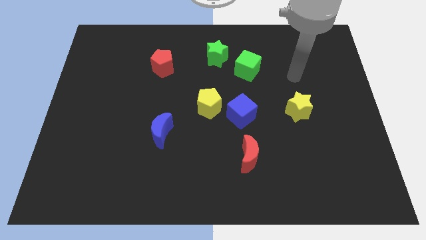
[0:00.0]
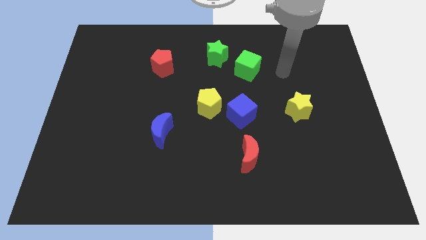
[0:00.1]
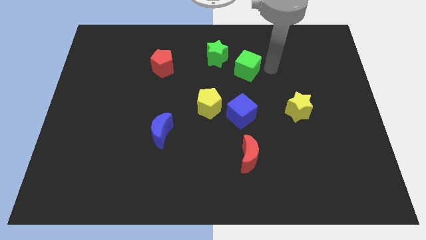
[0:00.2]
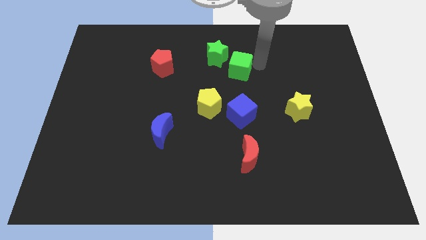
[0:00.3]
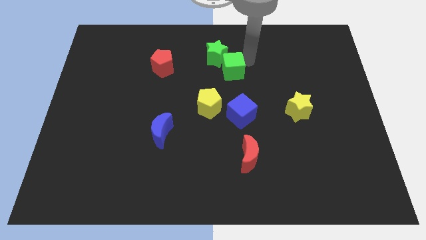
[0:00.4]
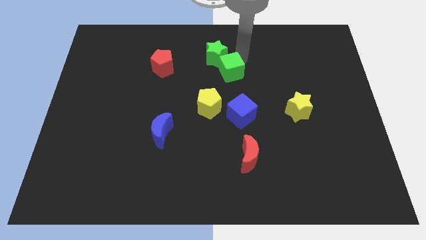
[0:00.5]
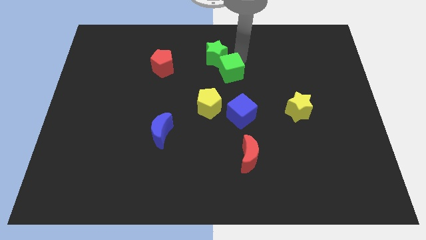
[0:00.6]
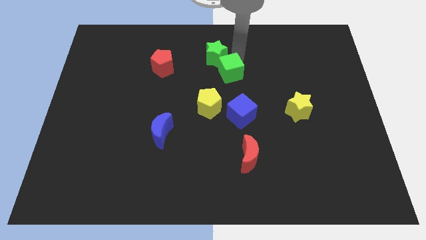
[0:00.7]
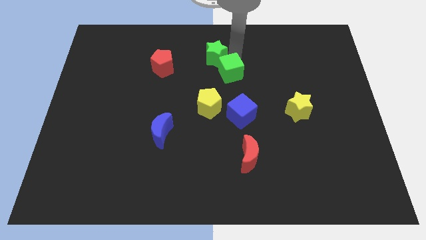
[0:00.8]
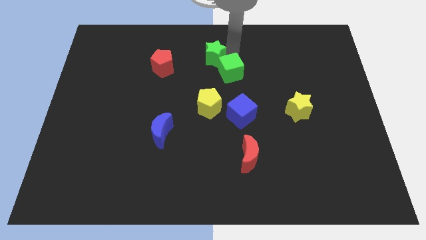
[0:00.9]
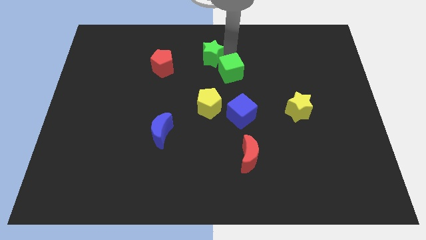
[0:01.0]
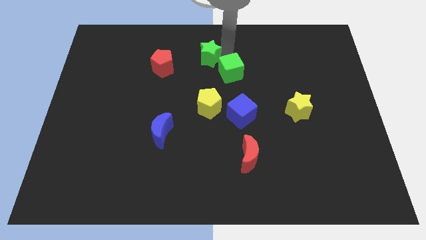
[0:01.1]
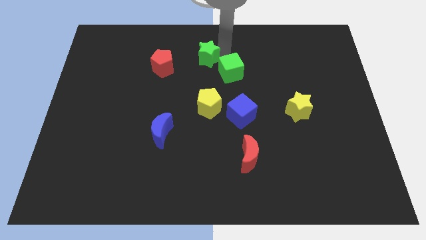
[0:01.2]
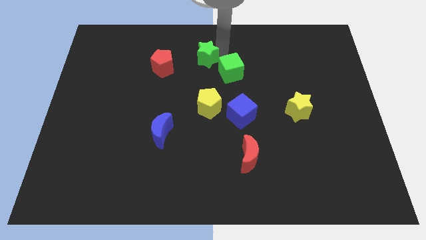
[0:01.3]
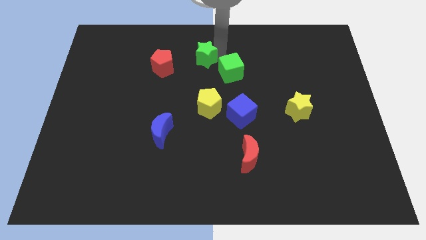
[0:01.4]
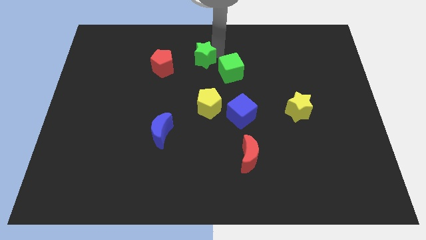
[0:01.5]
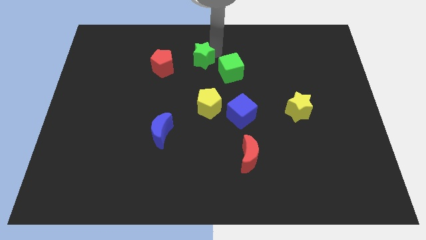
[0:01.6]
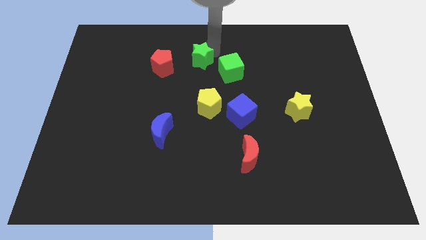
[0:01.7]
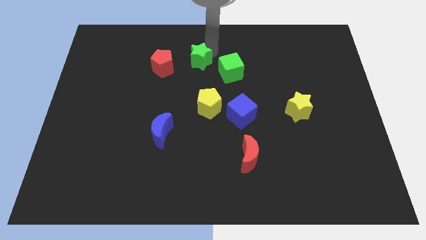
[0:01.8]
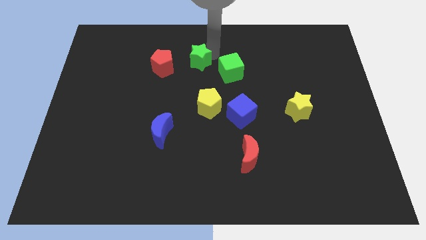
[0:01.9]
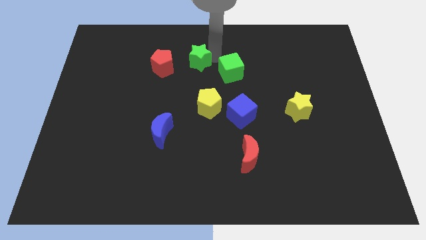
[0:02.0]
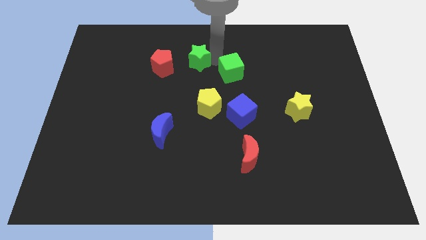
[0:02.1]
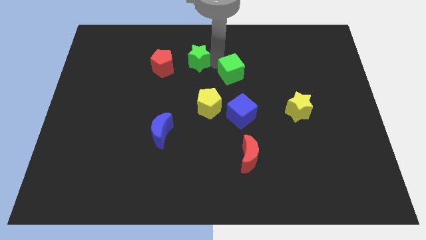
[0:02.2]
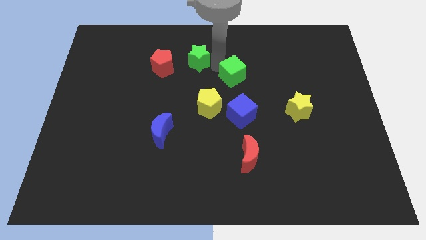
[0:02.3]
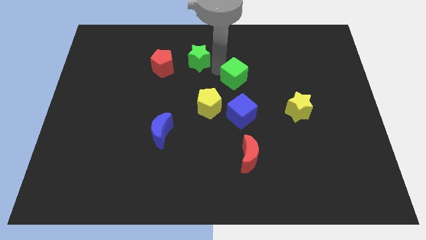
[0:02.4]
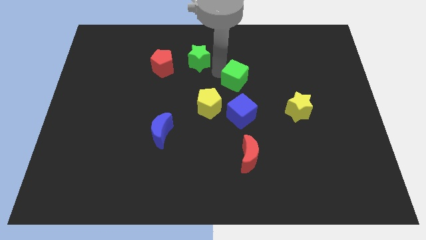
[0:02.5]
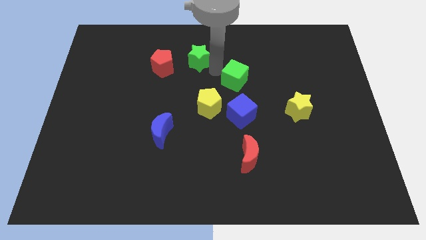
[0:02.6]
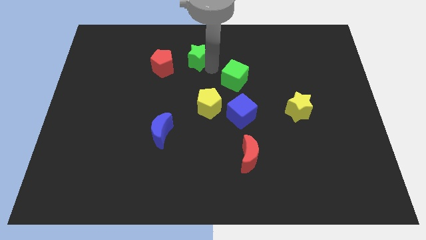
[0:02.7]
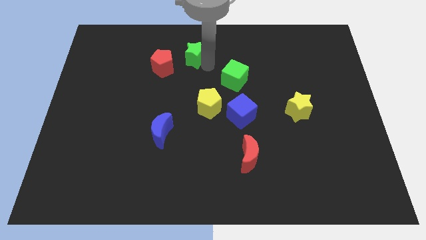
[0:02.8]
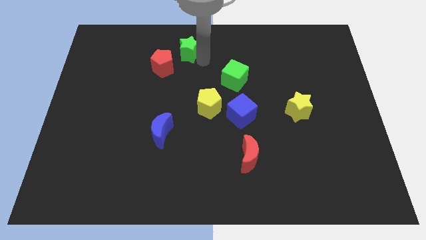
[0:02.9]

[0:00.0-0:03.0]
slide the green star a bit left

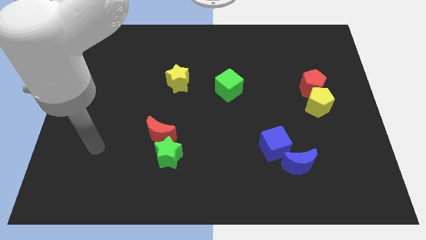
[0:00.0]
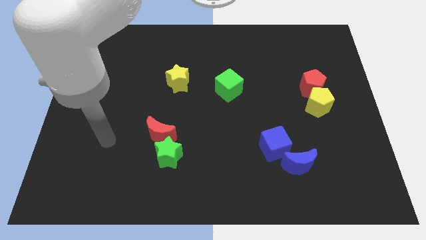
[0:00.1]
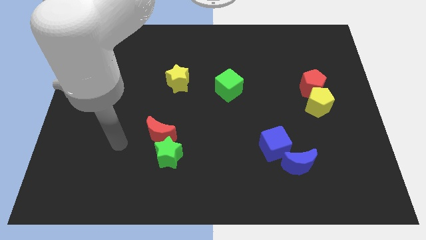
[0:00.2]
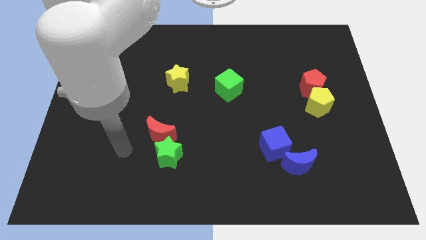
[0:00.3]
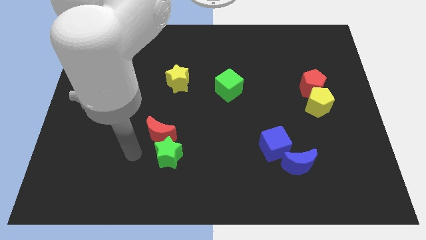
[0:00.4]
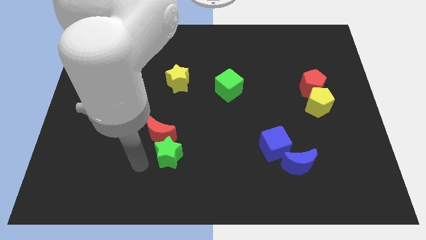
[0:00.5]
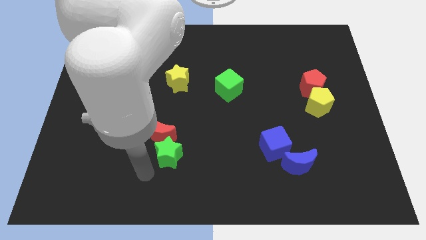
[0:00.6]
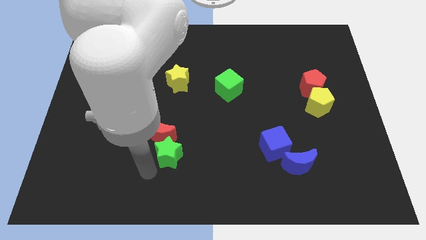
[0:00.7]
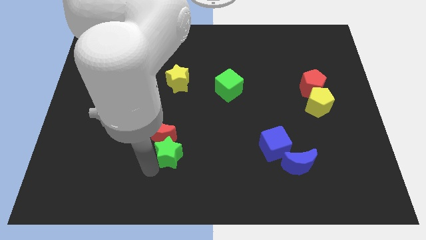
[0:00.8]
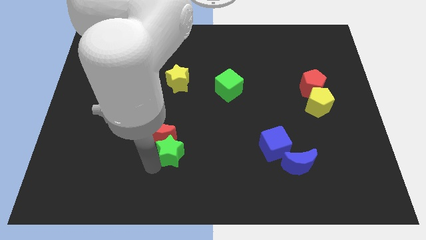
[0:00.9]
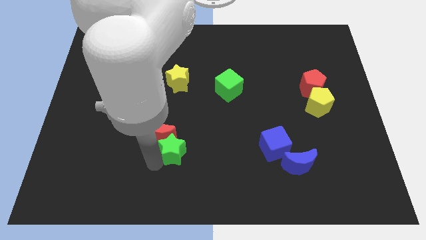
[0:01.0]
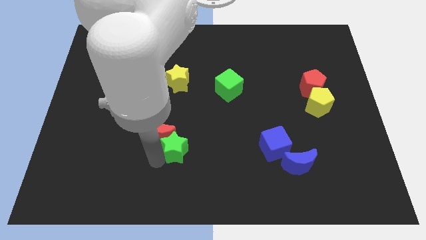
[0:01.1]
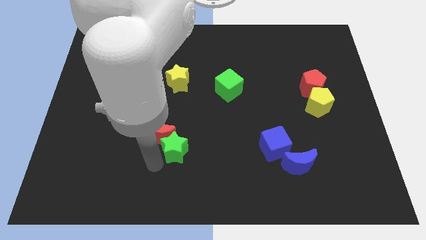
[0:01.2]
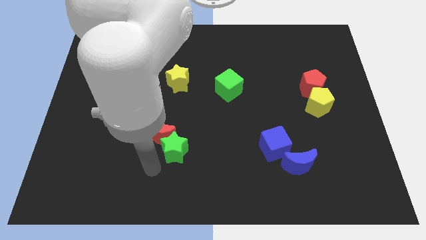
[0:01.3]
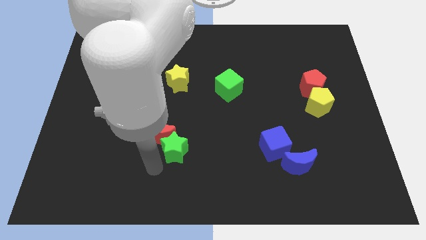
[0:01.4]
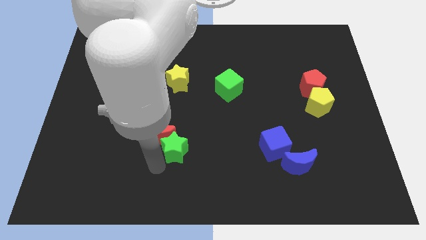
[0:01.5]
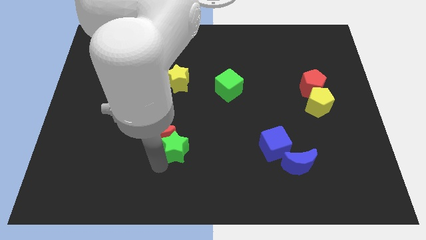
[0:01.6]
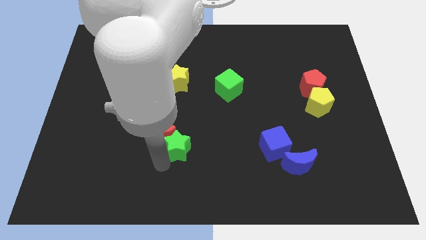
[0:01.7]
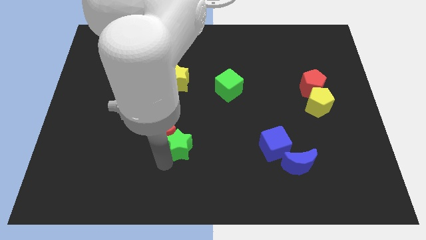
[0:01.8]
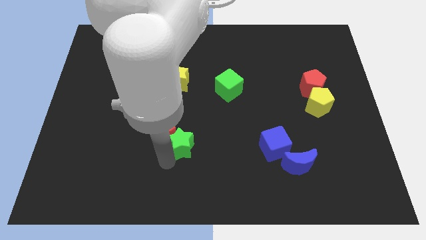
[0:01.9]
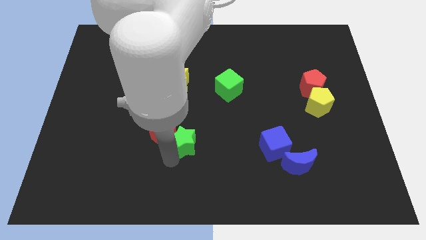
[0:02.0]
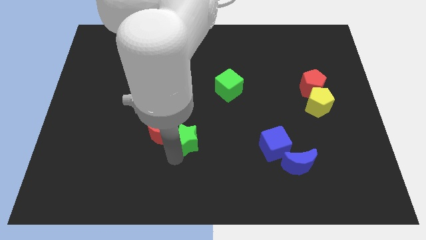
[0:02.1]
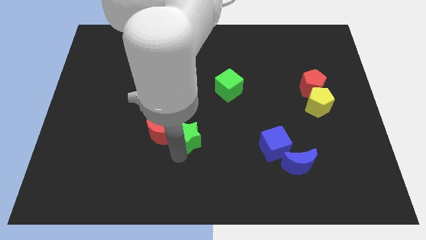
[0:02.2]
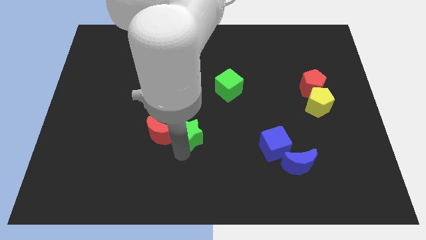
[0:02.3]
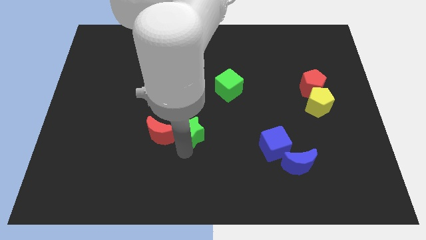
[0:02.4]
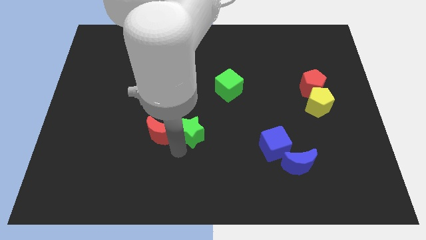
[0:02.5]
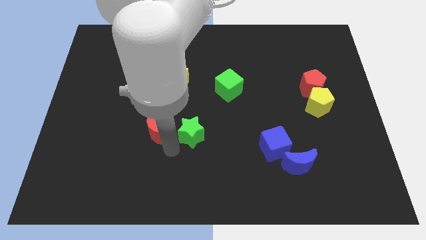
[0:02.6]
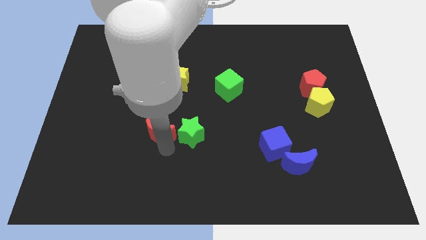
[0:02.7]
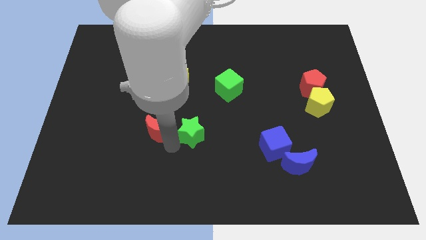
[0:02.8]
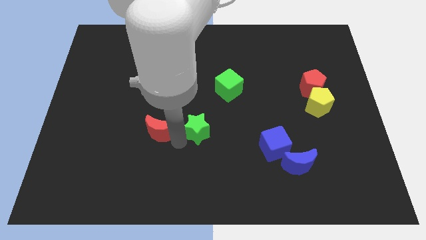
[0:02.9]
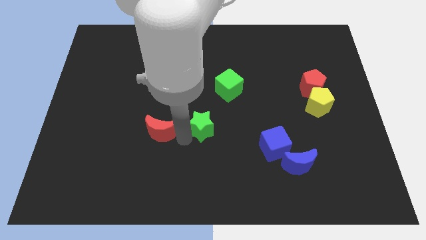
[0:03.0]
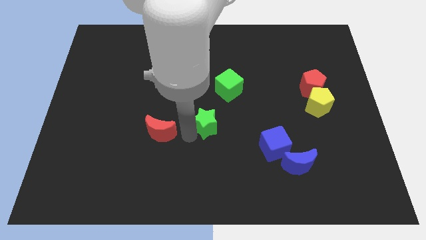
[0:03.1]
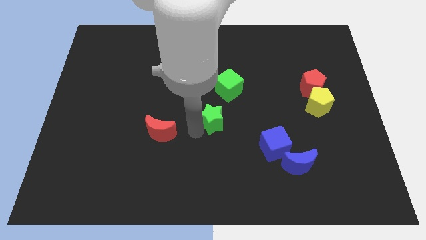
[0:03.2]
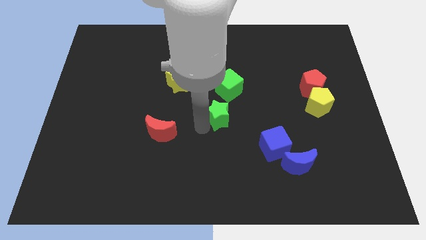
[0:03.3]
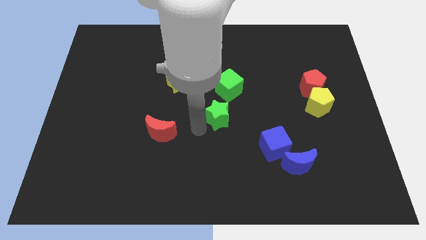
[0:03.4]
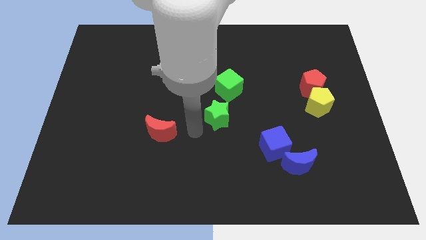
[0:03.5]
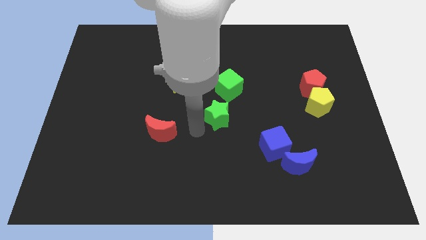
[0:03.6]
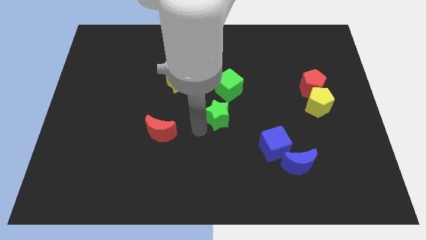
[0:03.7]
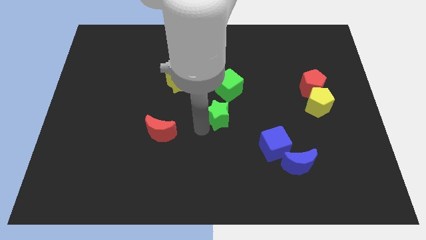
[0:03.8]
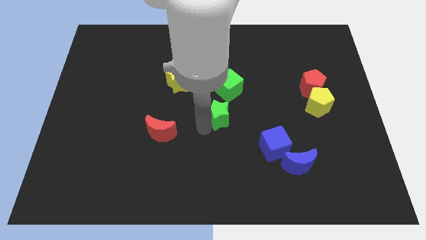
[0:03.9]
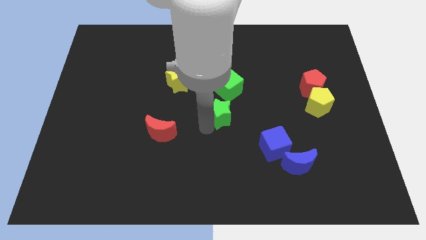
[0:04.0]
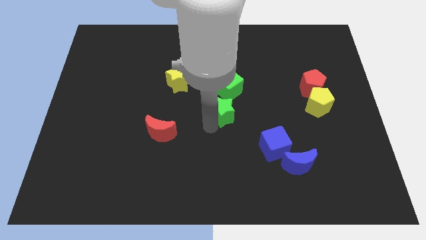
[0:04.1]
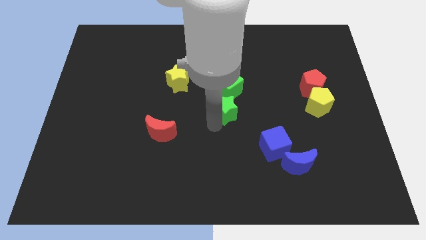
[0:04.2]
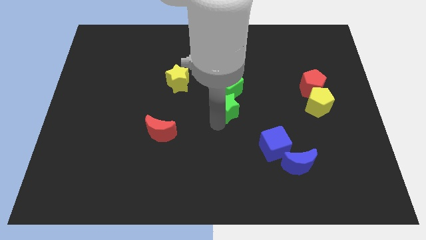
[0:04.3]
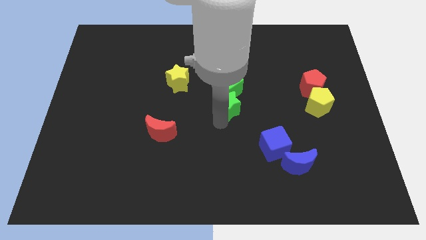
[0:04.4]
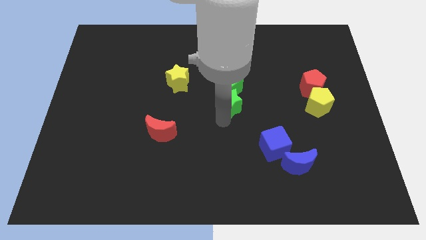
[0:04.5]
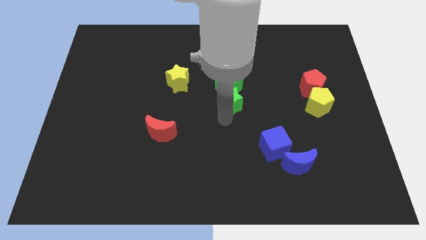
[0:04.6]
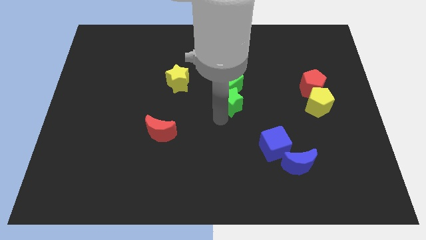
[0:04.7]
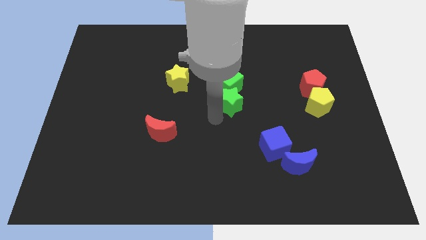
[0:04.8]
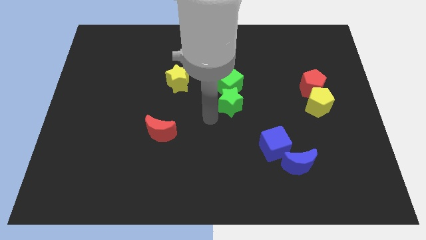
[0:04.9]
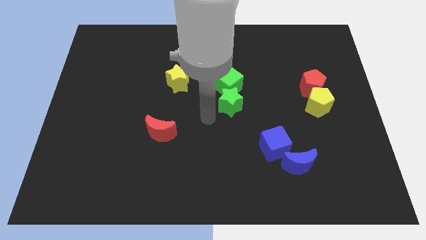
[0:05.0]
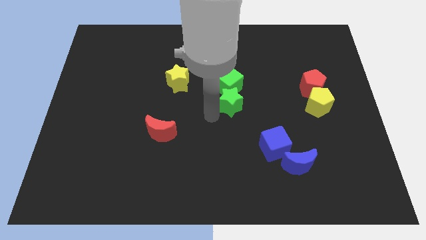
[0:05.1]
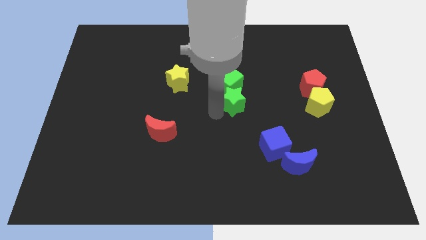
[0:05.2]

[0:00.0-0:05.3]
push the green star diagonally upwards and to the right

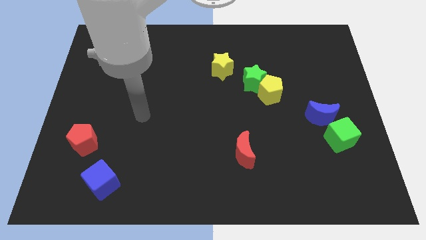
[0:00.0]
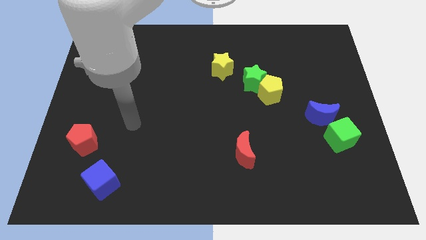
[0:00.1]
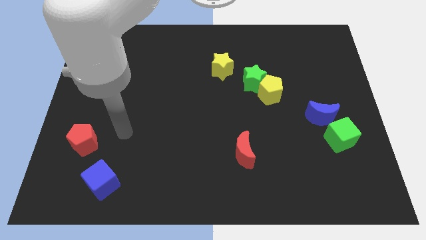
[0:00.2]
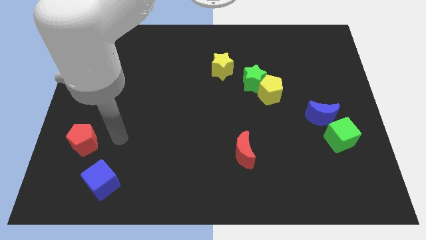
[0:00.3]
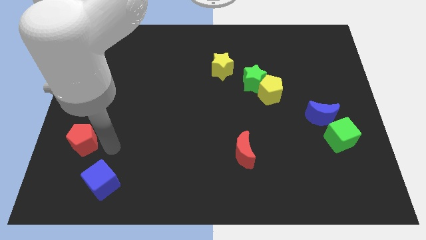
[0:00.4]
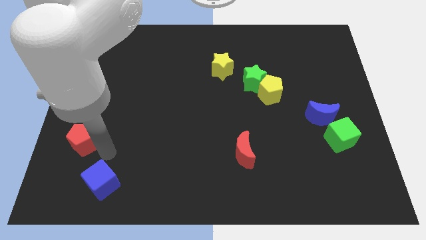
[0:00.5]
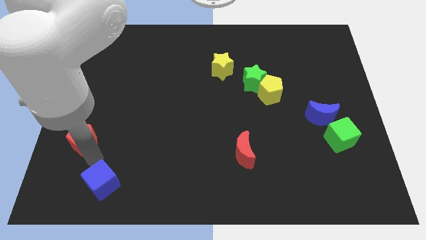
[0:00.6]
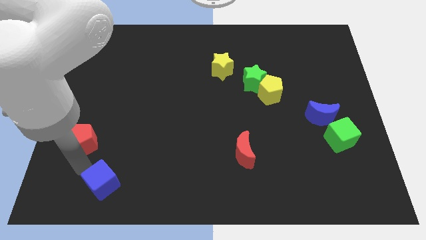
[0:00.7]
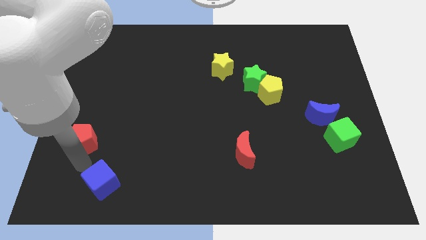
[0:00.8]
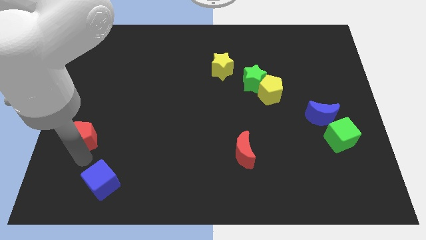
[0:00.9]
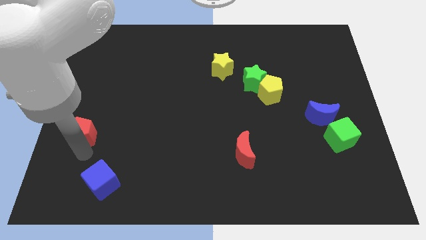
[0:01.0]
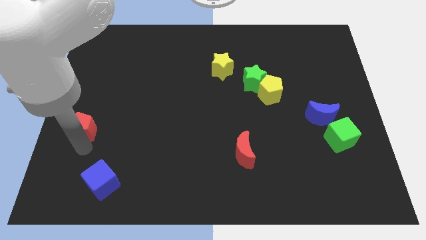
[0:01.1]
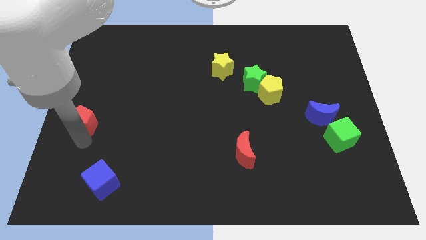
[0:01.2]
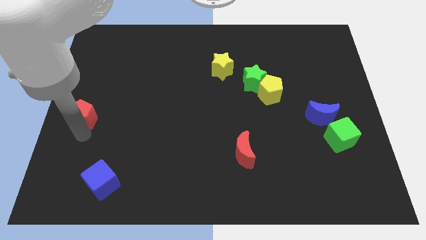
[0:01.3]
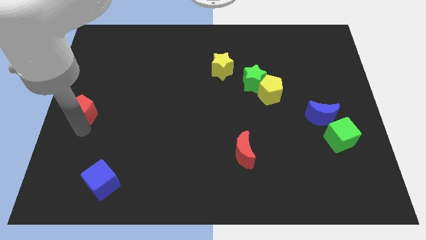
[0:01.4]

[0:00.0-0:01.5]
push the red pentagon slightly upwards
